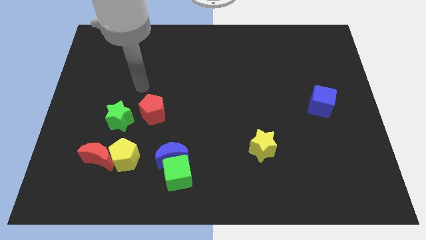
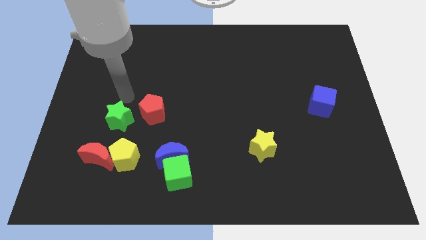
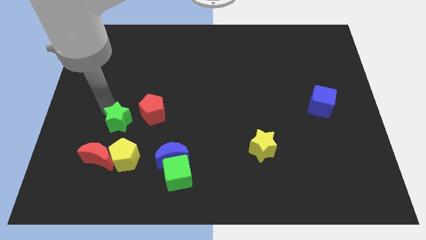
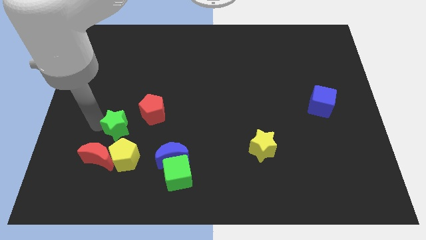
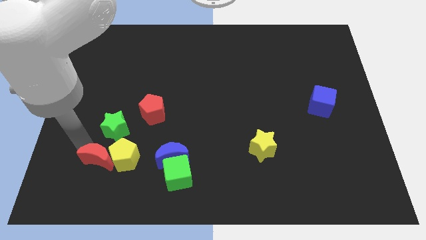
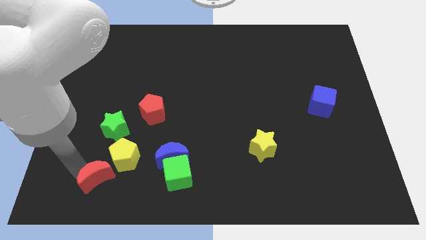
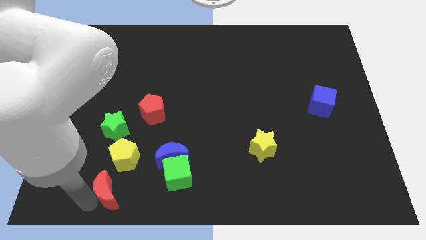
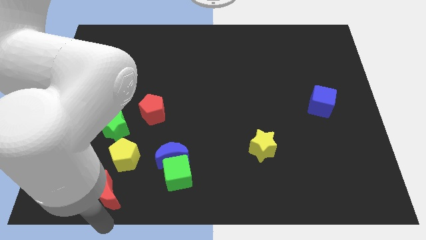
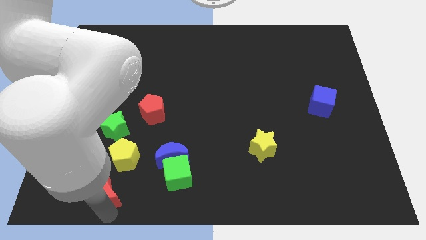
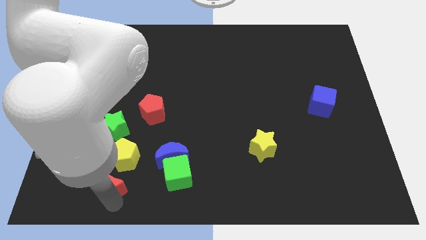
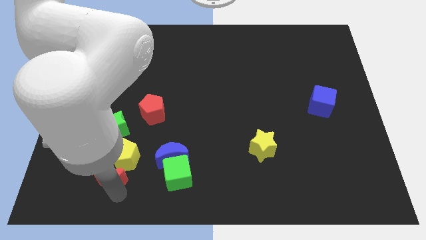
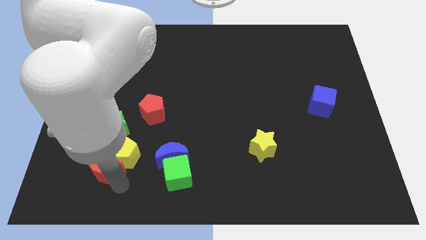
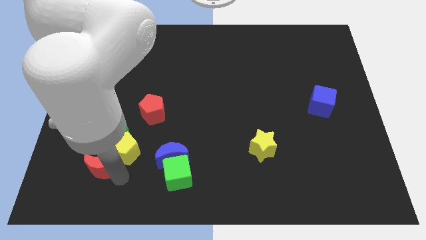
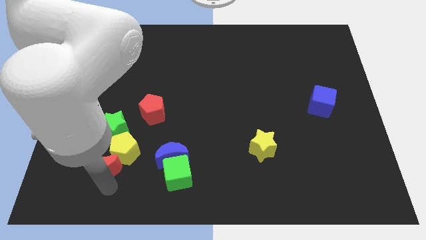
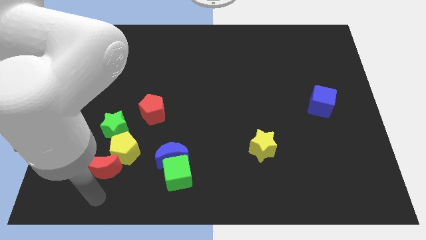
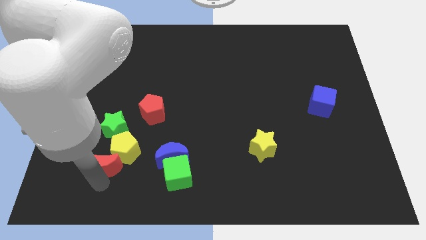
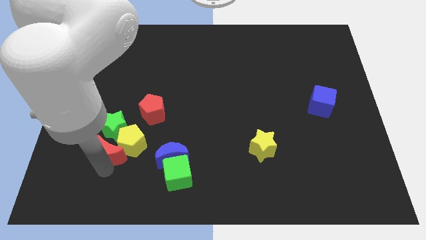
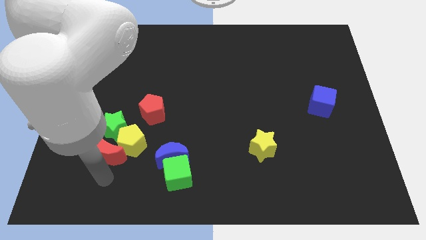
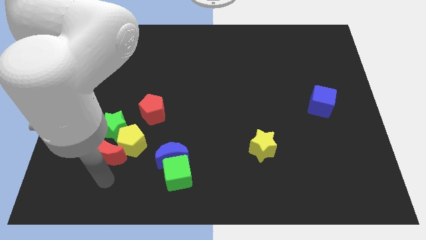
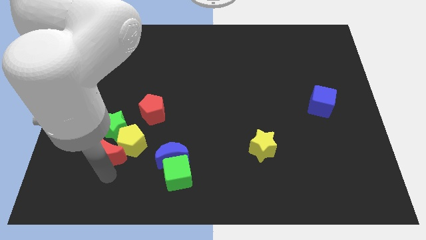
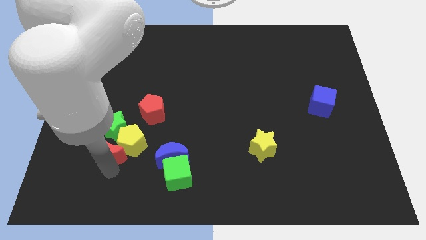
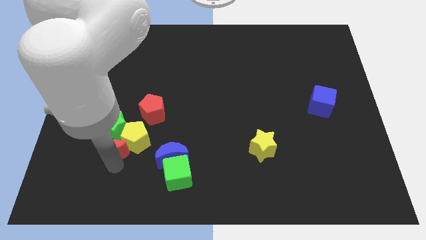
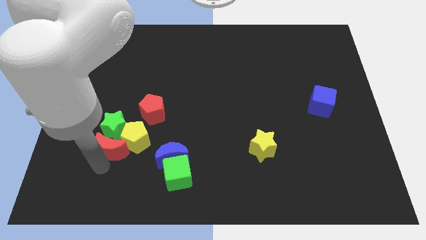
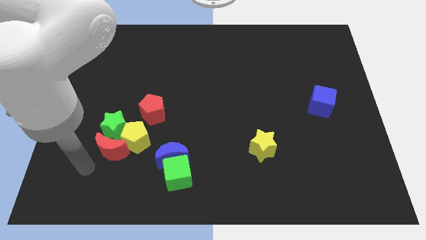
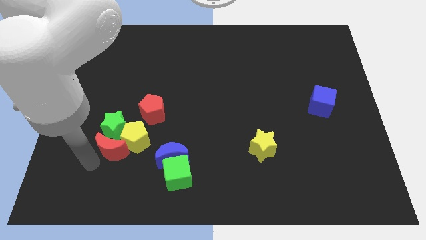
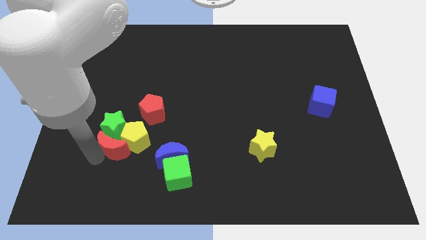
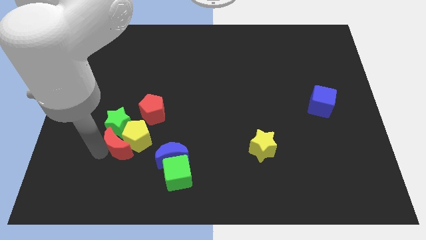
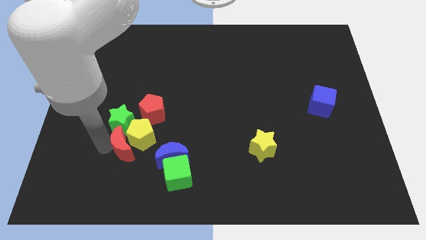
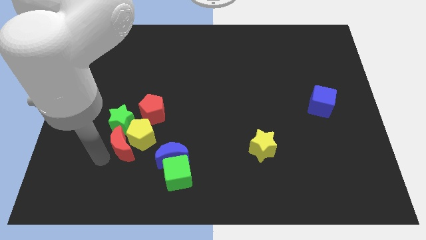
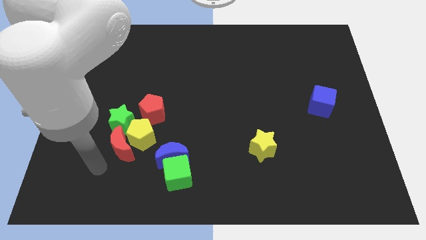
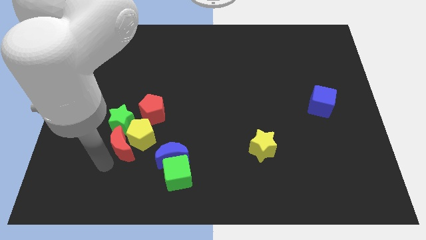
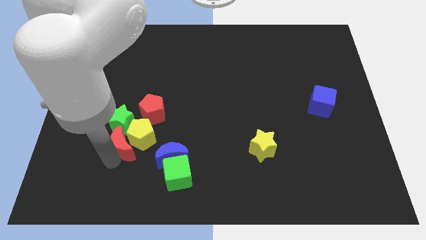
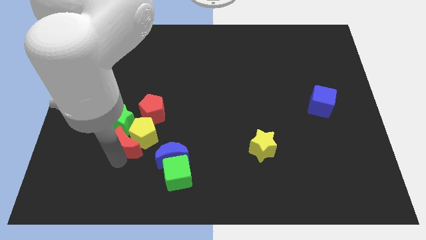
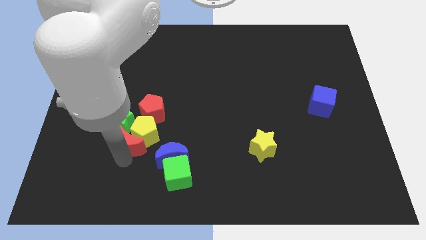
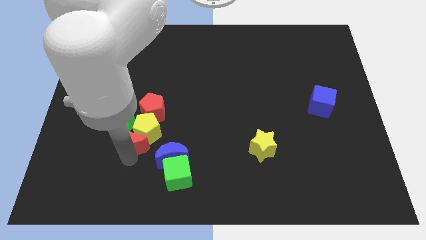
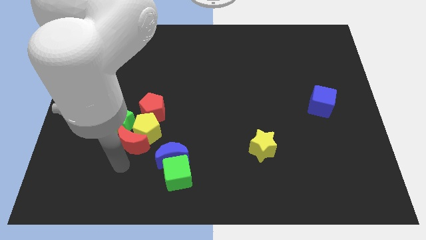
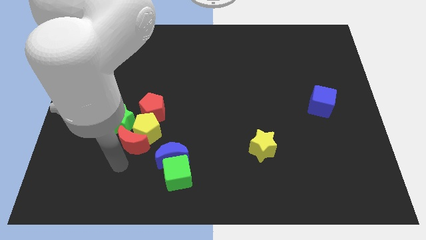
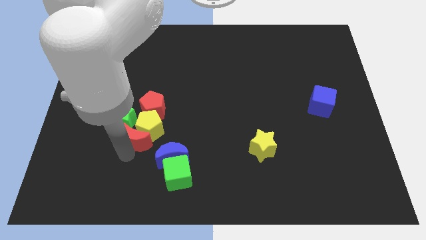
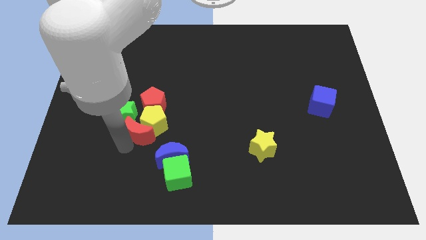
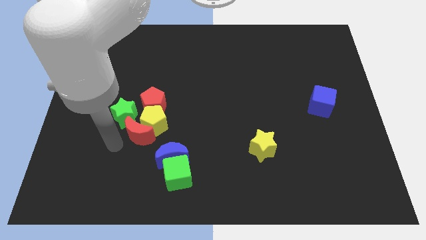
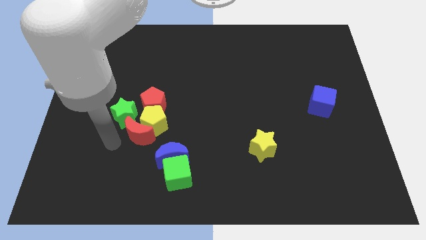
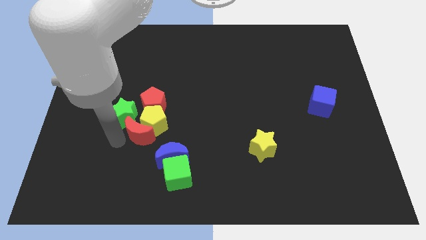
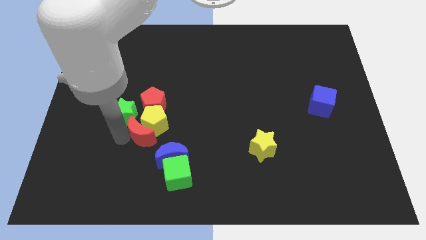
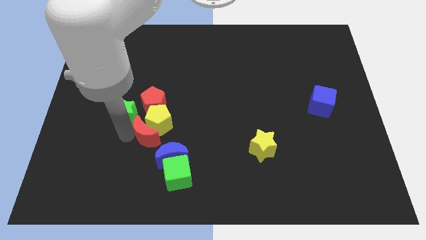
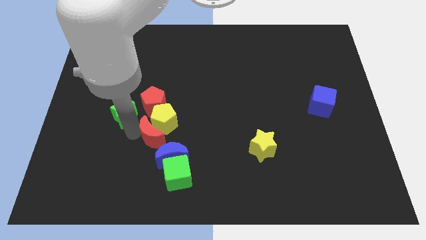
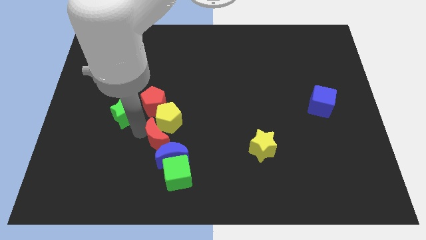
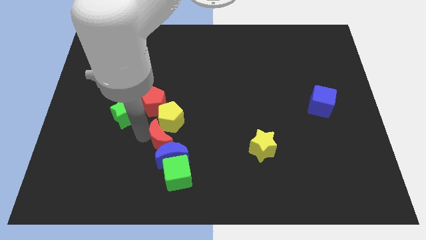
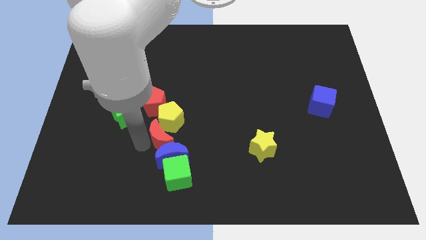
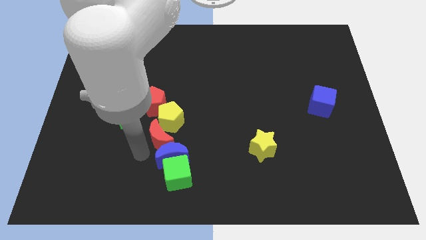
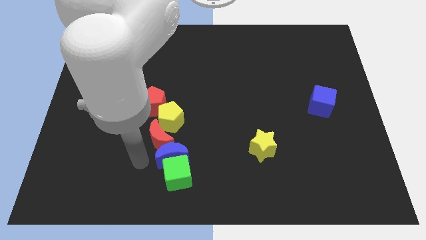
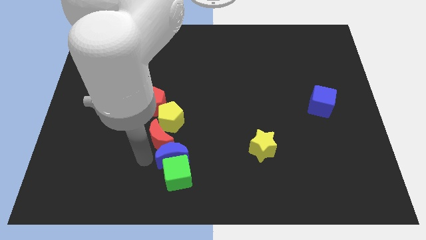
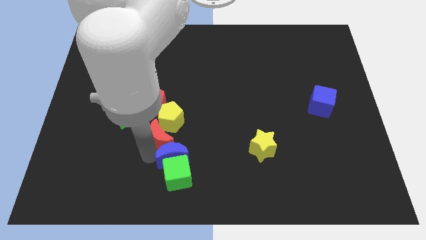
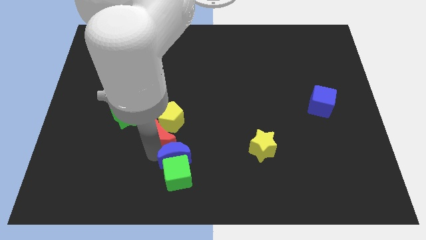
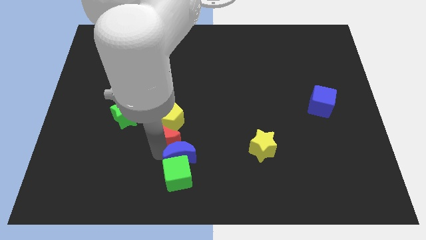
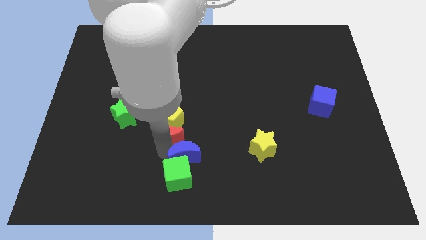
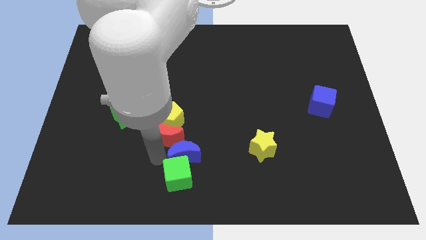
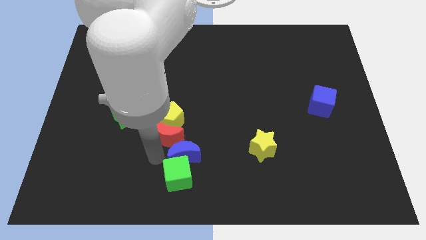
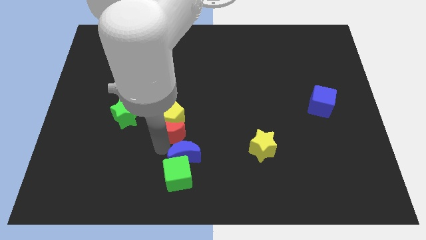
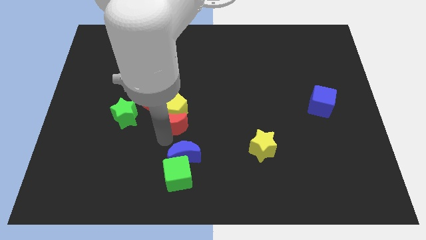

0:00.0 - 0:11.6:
push the red moon to the center of the board
